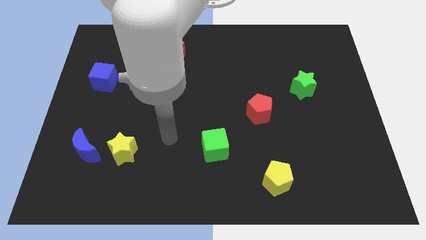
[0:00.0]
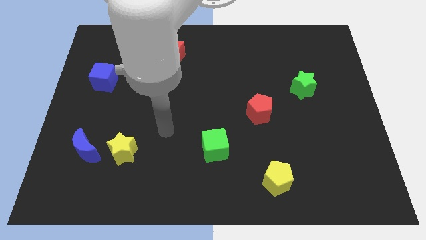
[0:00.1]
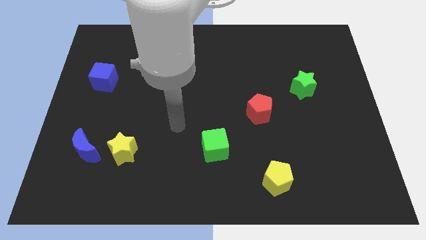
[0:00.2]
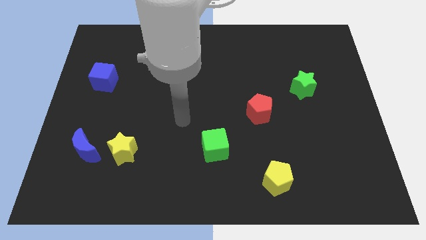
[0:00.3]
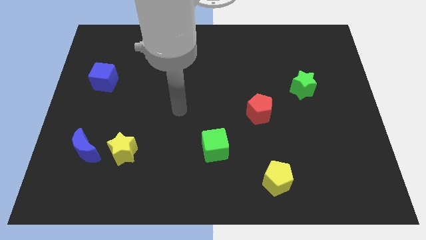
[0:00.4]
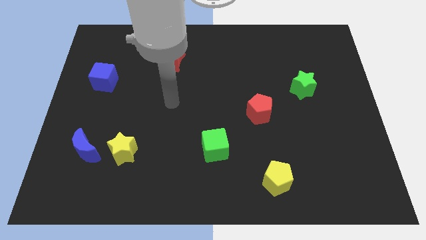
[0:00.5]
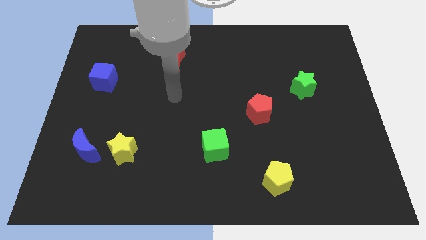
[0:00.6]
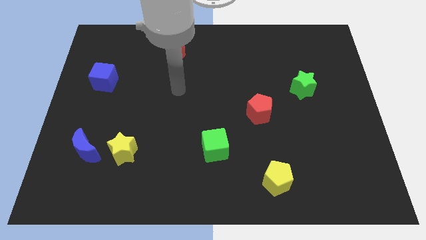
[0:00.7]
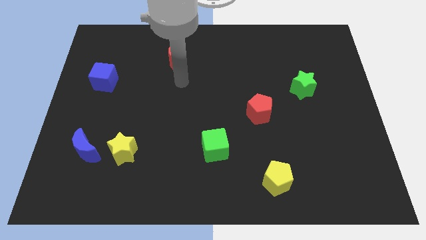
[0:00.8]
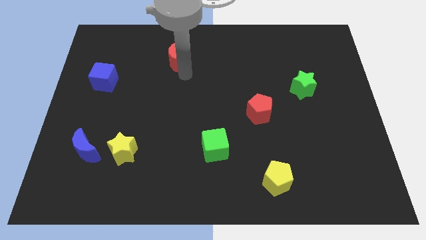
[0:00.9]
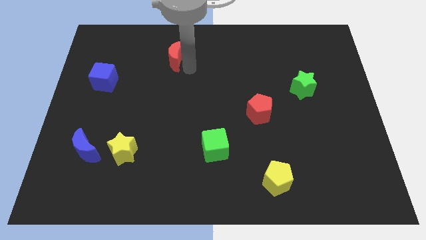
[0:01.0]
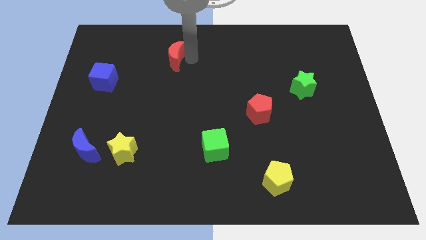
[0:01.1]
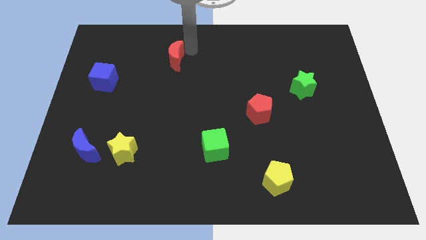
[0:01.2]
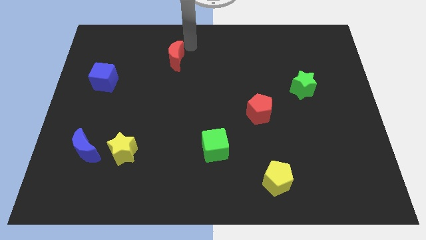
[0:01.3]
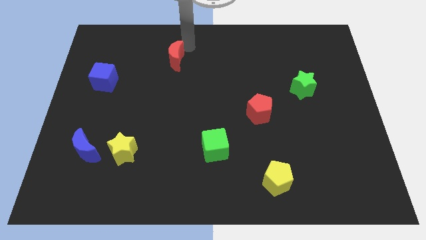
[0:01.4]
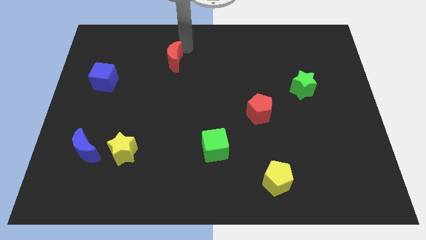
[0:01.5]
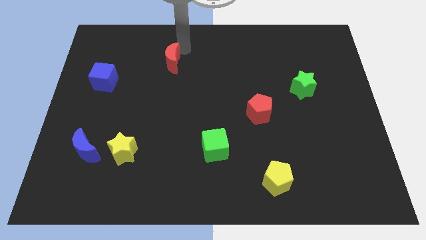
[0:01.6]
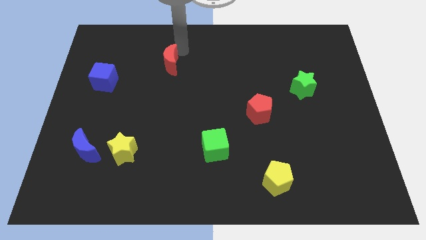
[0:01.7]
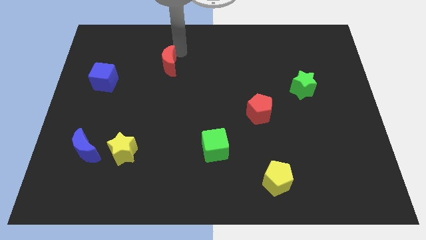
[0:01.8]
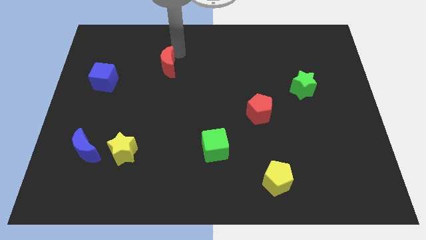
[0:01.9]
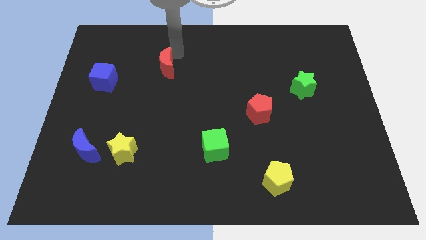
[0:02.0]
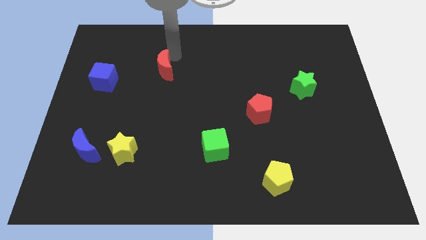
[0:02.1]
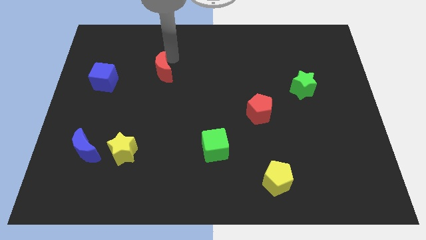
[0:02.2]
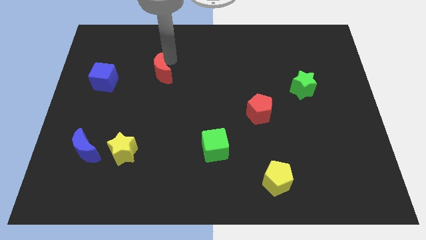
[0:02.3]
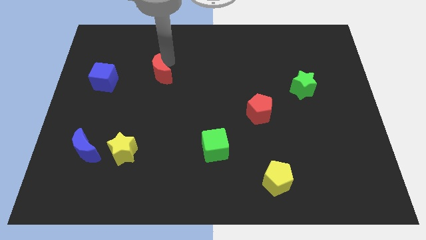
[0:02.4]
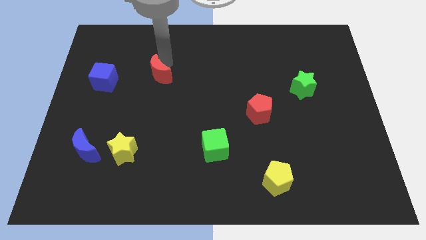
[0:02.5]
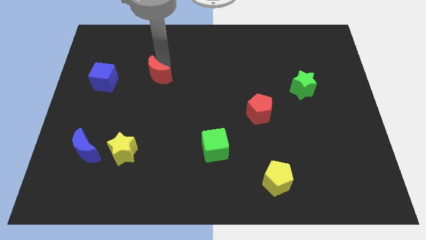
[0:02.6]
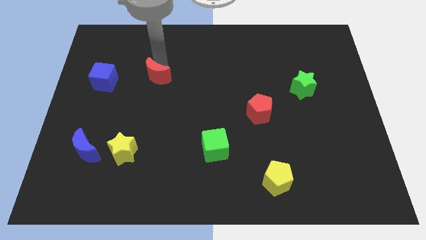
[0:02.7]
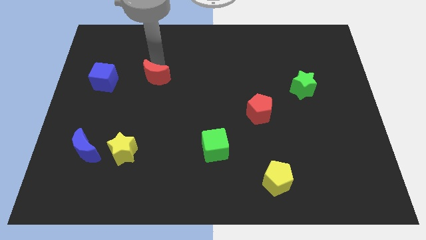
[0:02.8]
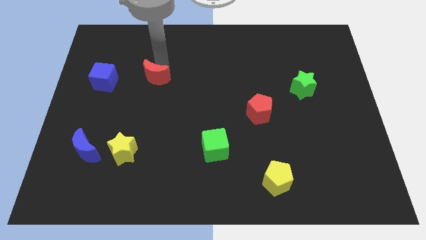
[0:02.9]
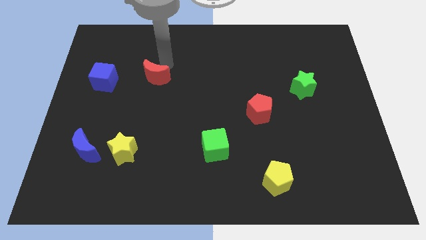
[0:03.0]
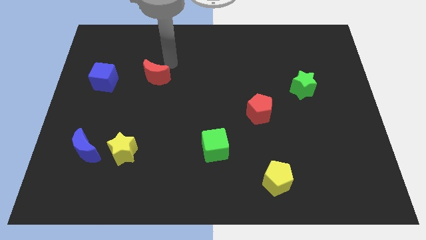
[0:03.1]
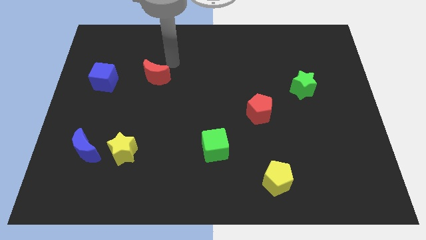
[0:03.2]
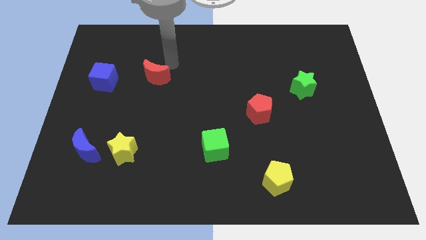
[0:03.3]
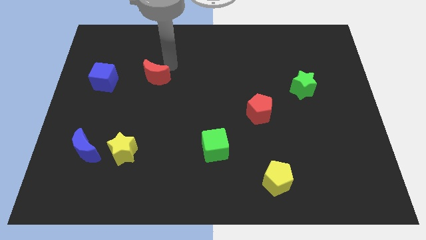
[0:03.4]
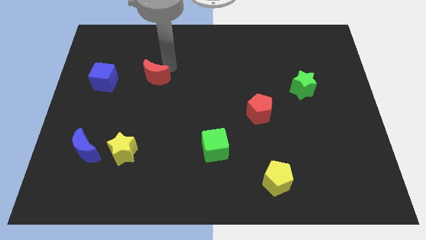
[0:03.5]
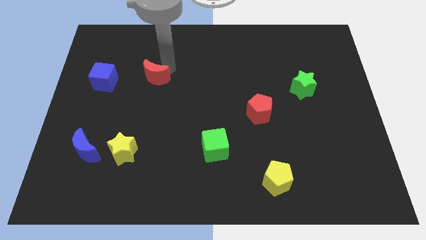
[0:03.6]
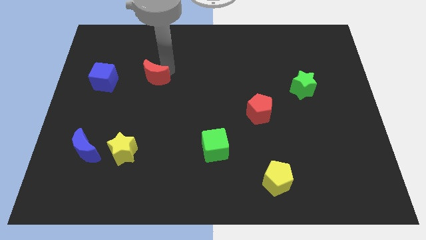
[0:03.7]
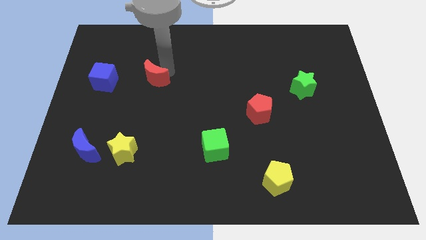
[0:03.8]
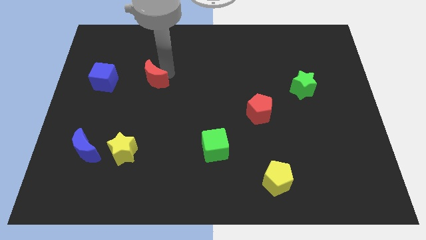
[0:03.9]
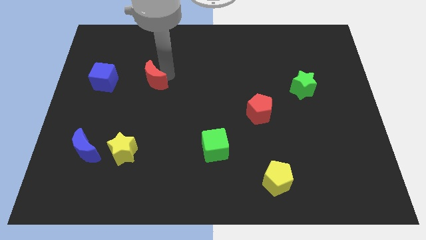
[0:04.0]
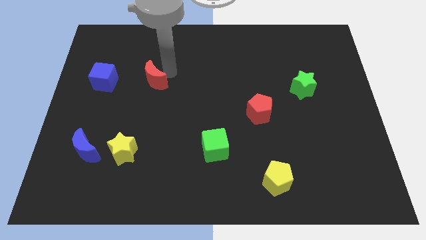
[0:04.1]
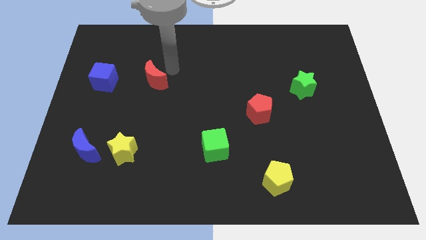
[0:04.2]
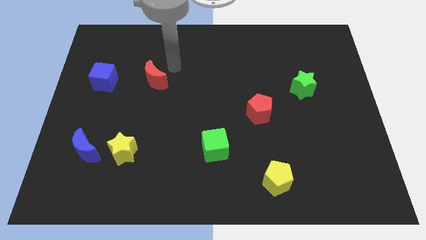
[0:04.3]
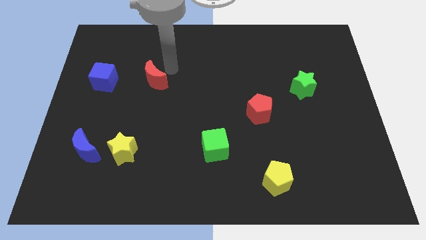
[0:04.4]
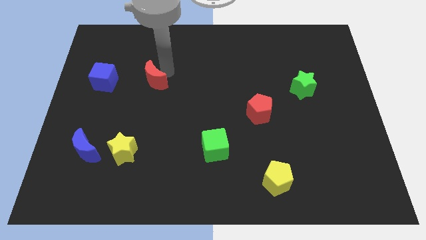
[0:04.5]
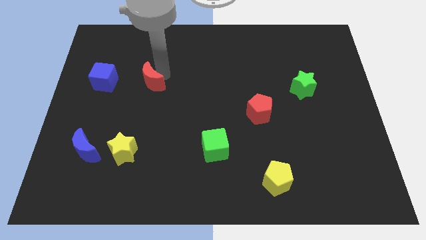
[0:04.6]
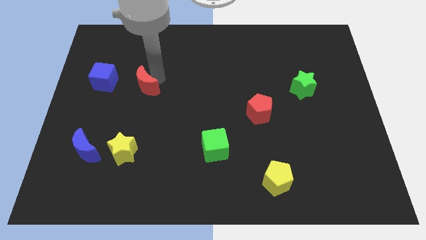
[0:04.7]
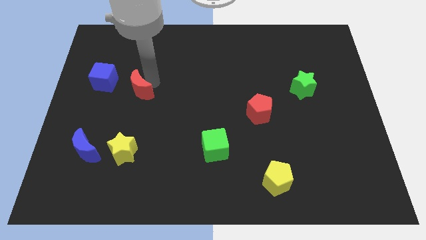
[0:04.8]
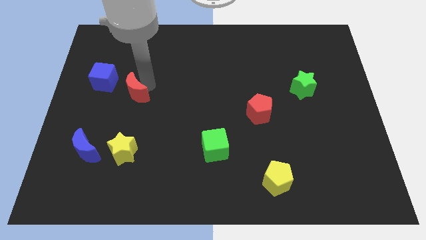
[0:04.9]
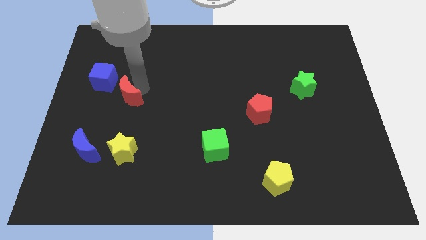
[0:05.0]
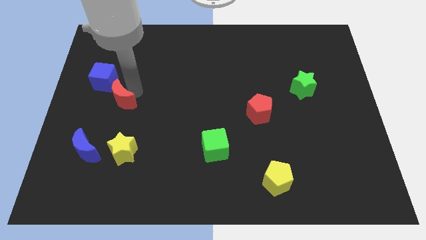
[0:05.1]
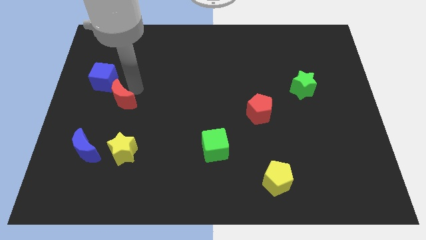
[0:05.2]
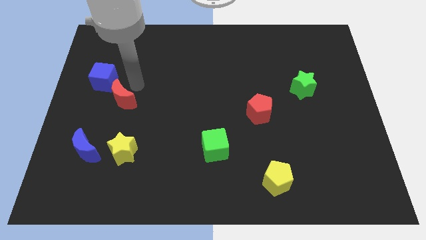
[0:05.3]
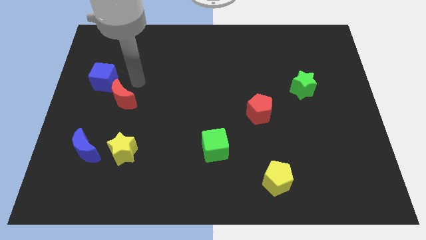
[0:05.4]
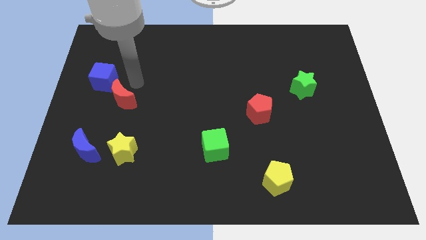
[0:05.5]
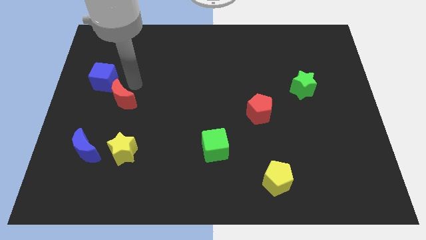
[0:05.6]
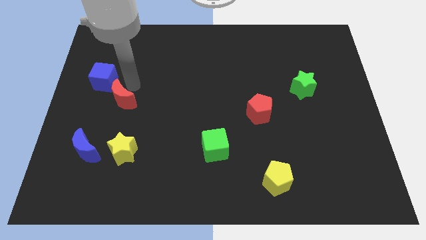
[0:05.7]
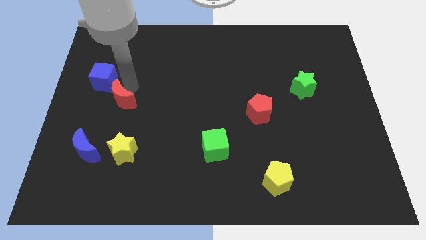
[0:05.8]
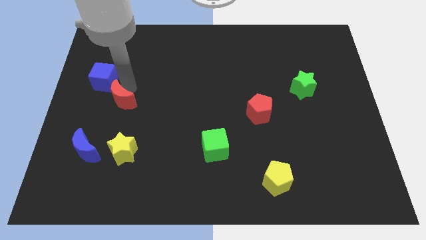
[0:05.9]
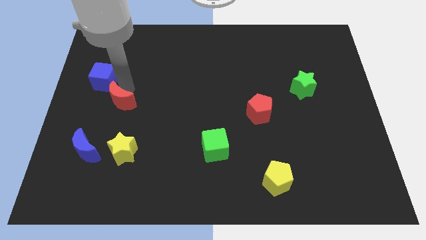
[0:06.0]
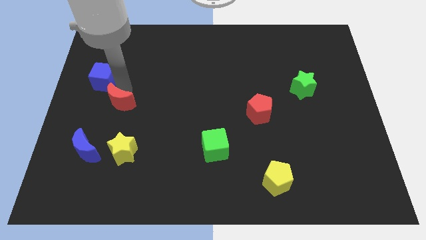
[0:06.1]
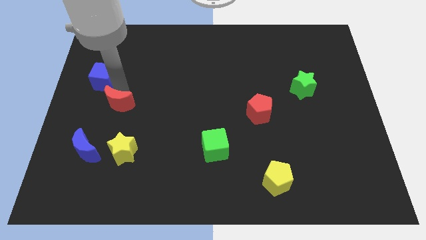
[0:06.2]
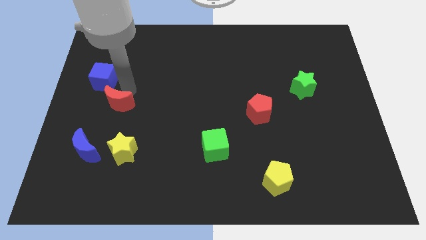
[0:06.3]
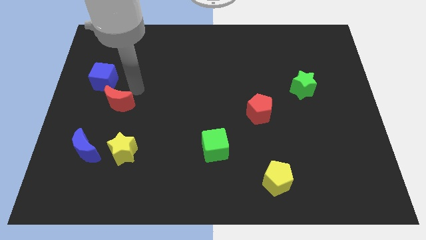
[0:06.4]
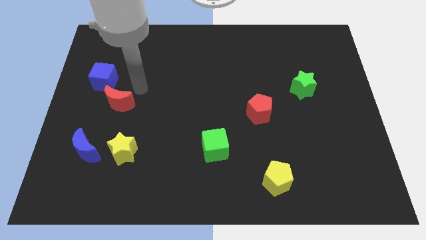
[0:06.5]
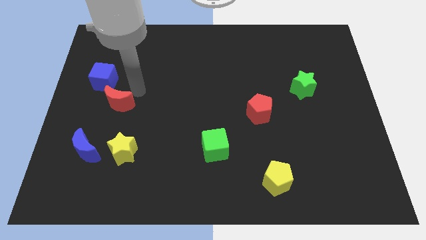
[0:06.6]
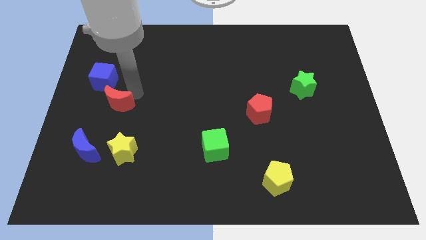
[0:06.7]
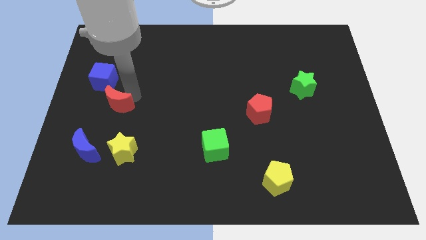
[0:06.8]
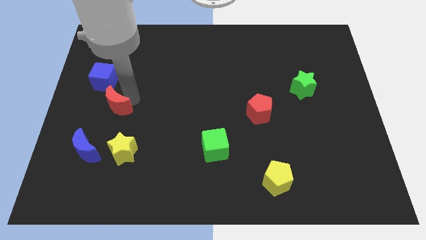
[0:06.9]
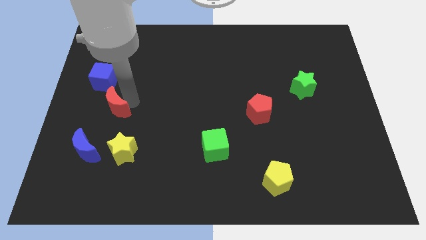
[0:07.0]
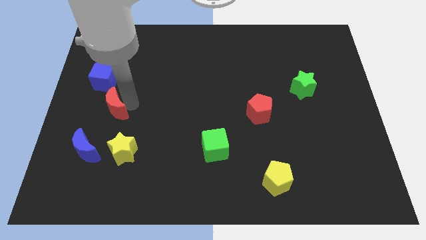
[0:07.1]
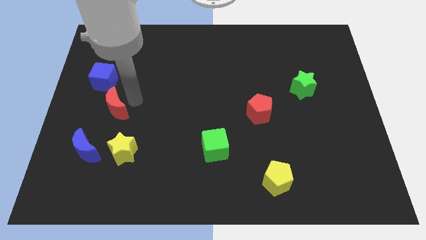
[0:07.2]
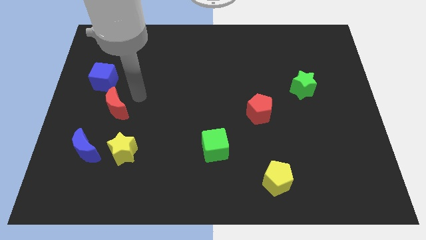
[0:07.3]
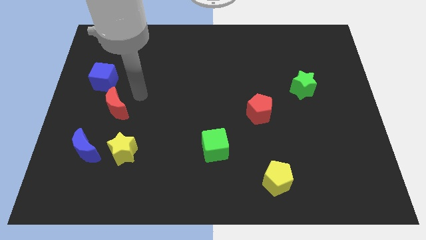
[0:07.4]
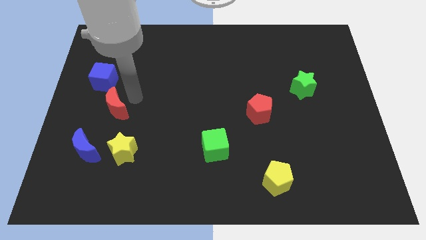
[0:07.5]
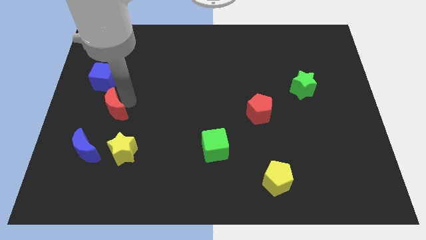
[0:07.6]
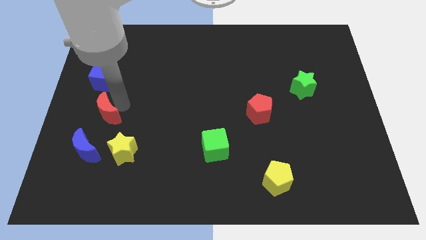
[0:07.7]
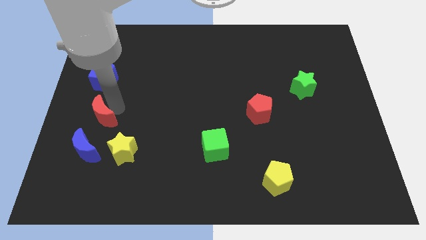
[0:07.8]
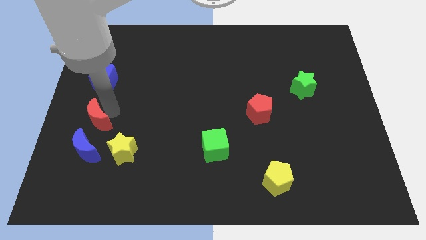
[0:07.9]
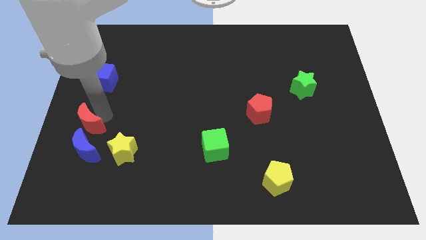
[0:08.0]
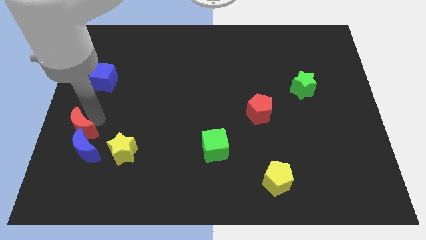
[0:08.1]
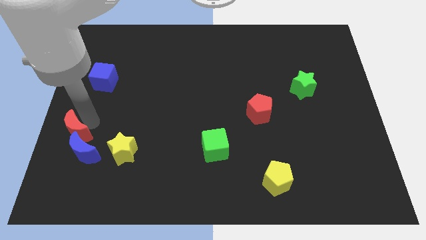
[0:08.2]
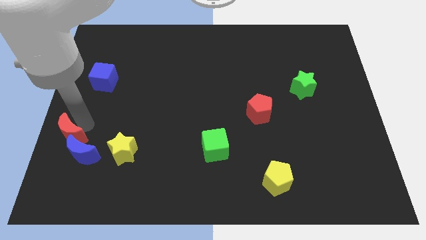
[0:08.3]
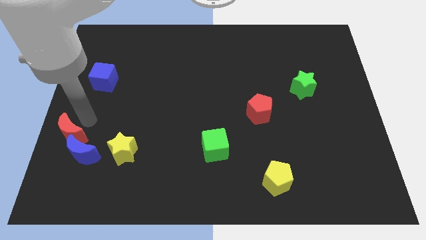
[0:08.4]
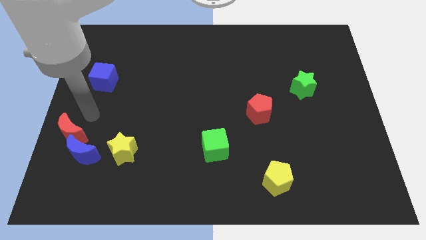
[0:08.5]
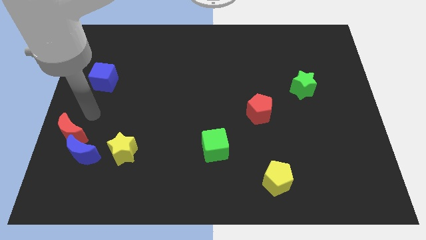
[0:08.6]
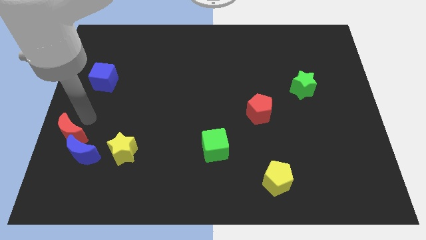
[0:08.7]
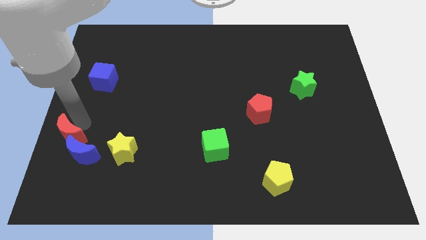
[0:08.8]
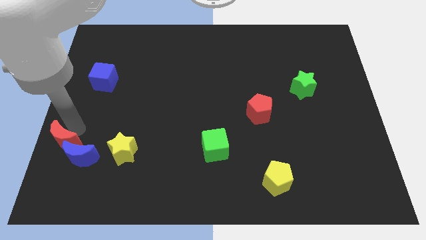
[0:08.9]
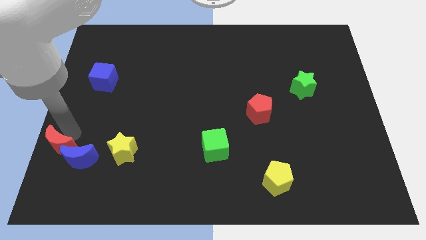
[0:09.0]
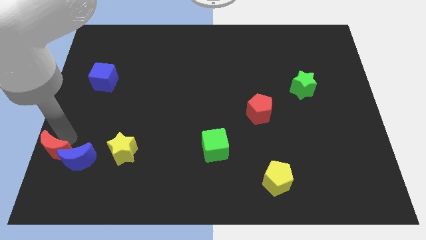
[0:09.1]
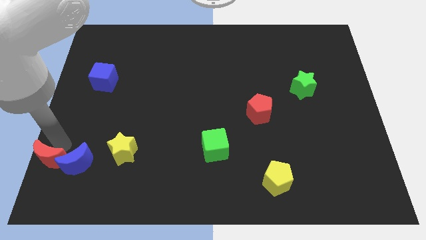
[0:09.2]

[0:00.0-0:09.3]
move the red moon to the bottom left corner
